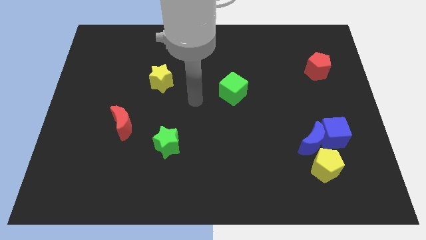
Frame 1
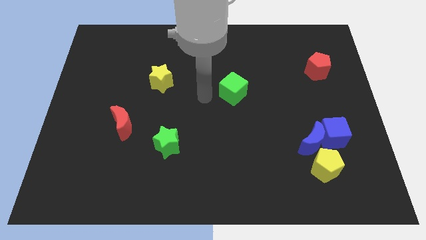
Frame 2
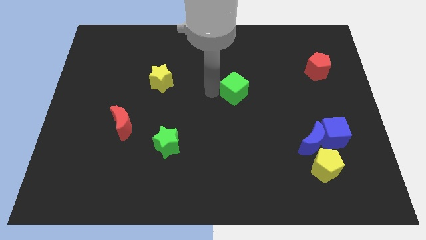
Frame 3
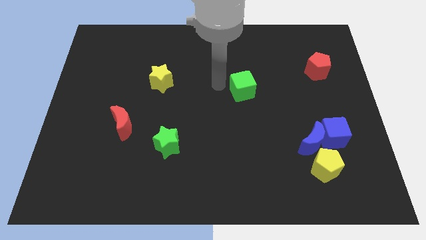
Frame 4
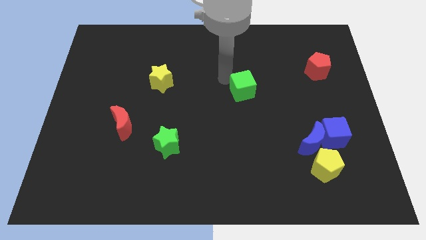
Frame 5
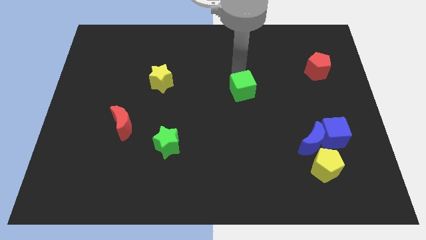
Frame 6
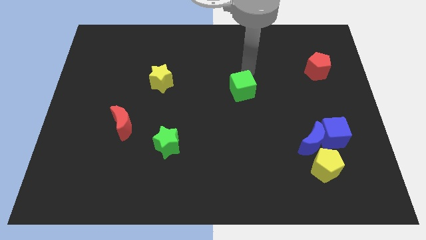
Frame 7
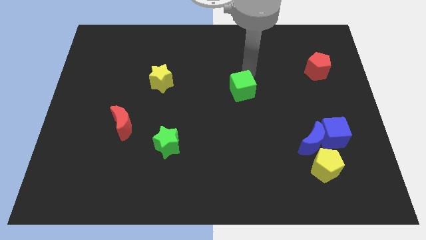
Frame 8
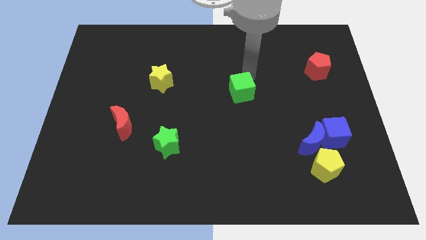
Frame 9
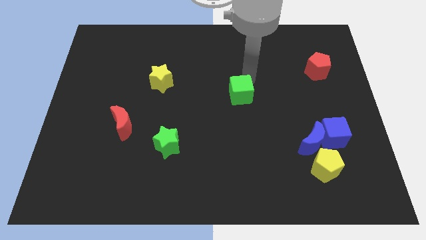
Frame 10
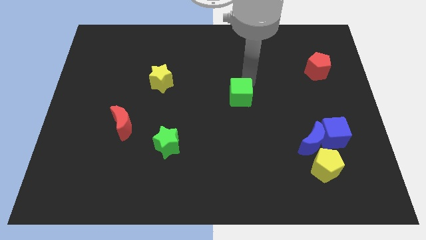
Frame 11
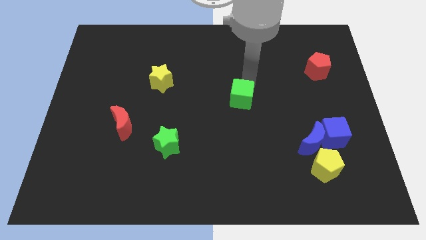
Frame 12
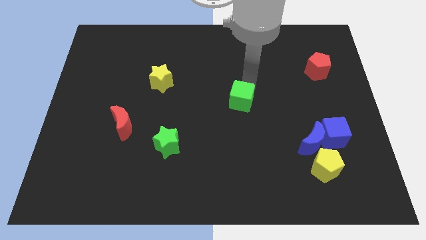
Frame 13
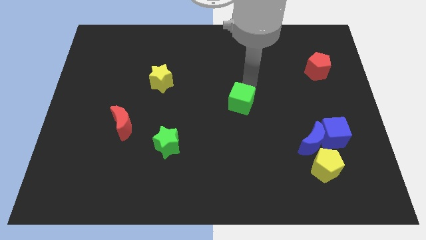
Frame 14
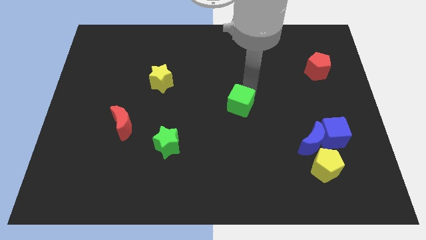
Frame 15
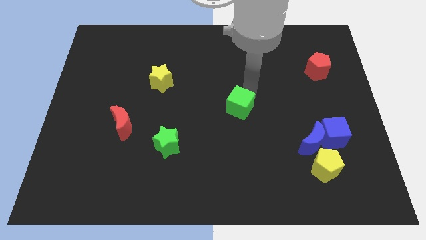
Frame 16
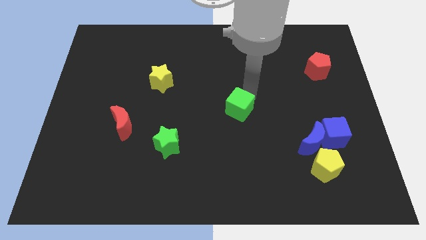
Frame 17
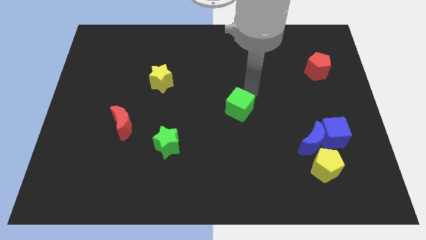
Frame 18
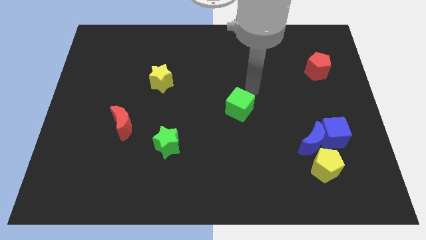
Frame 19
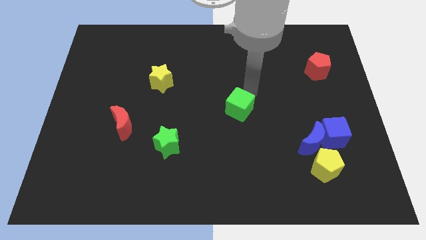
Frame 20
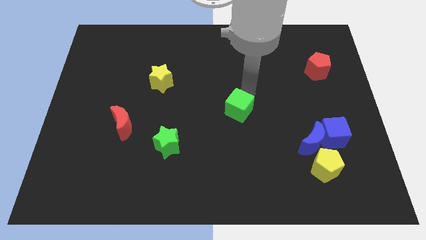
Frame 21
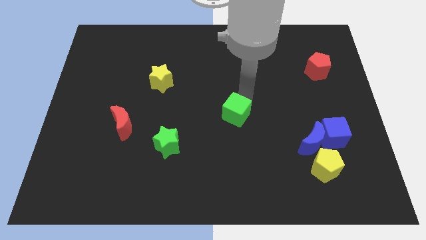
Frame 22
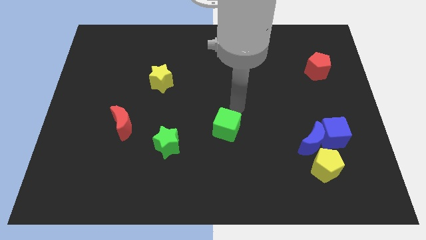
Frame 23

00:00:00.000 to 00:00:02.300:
push the green cube down slightly

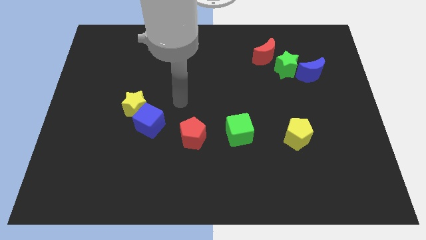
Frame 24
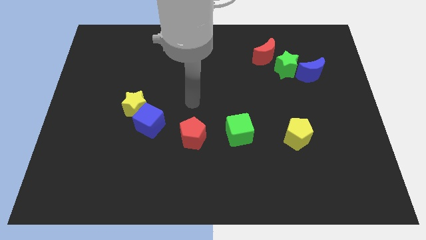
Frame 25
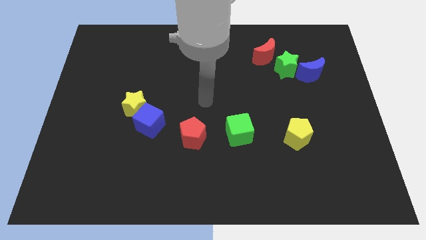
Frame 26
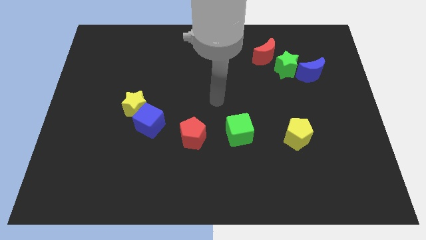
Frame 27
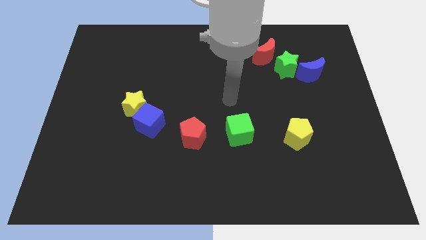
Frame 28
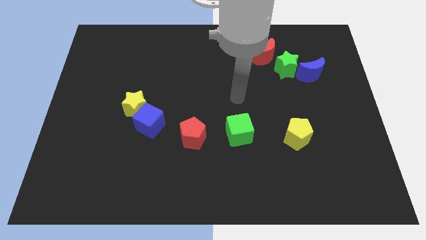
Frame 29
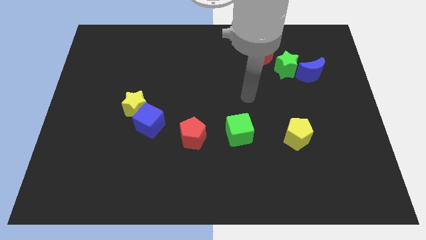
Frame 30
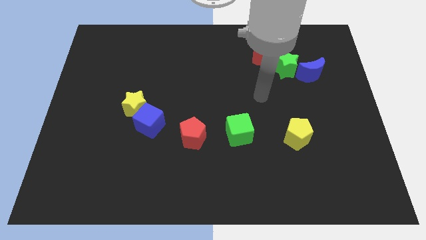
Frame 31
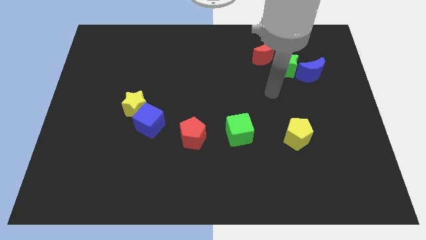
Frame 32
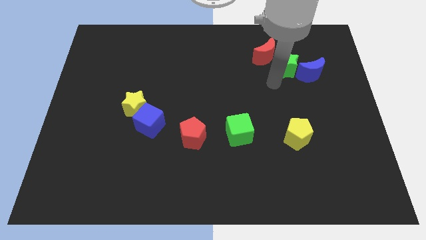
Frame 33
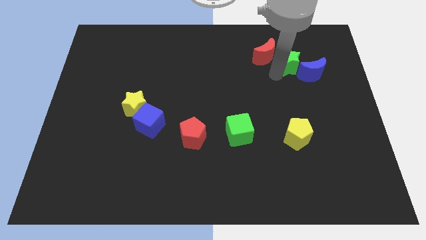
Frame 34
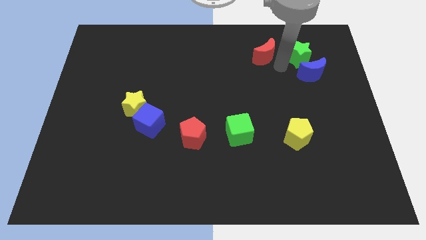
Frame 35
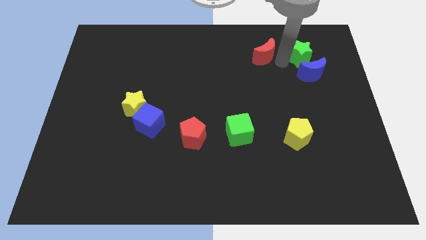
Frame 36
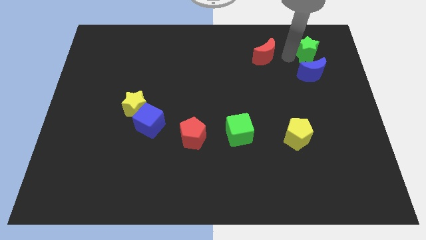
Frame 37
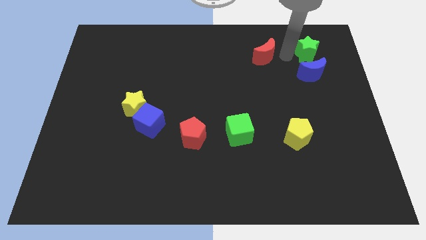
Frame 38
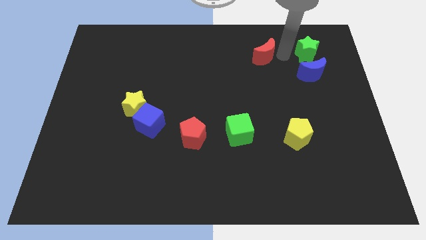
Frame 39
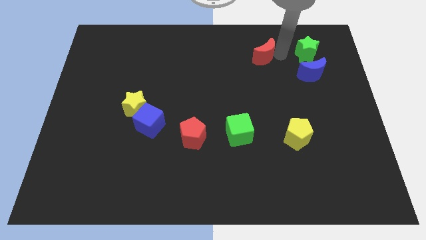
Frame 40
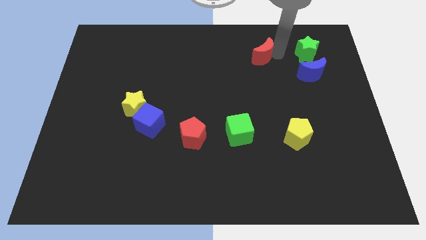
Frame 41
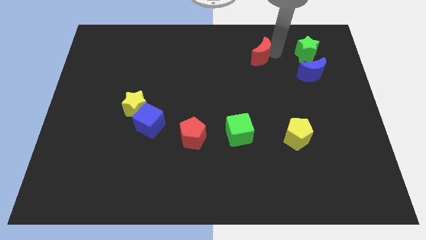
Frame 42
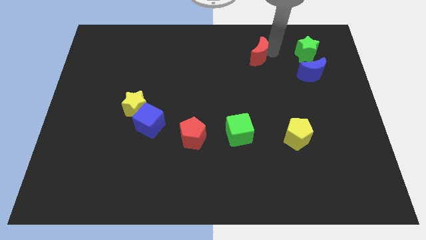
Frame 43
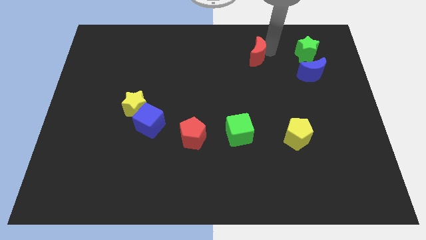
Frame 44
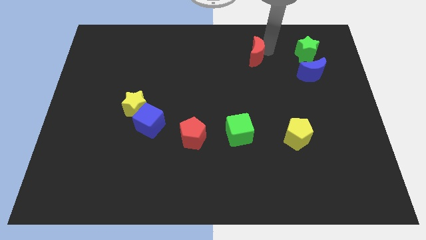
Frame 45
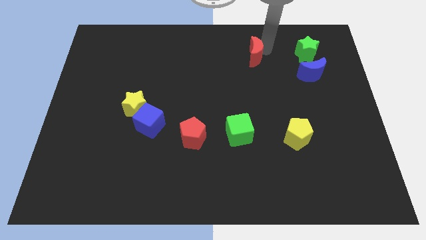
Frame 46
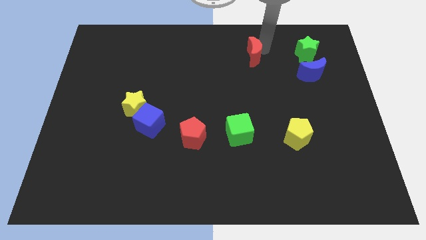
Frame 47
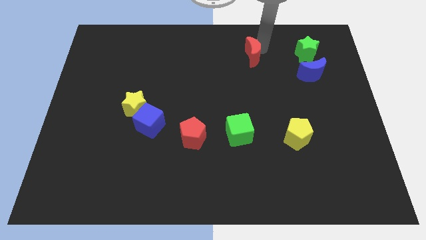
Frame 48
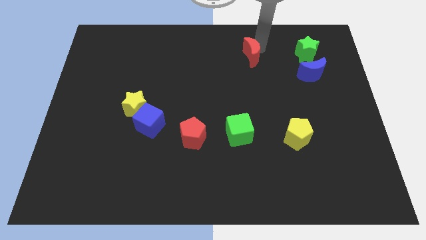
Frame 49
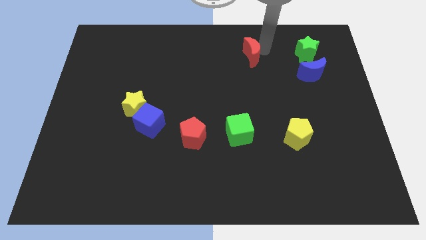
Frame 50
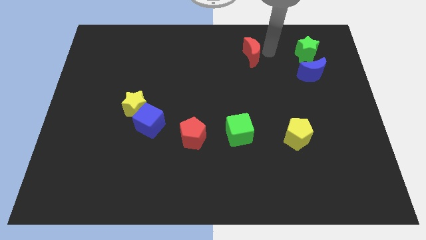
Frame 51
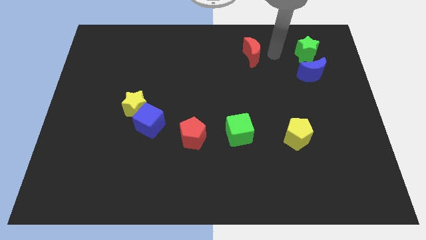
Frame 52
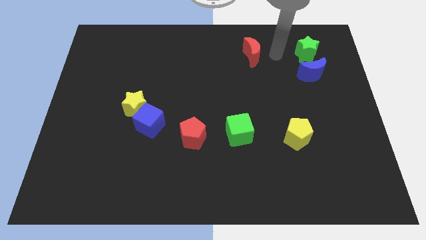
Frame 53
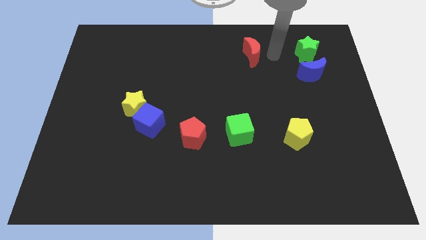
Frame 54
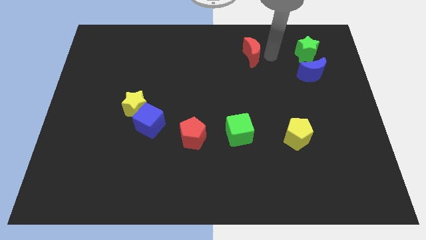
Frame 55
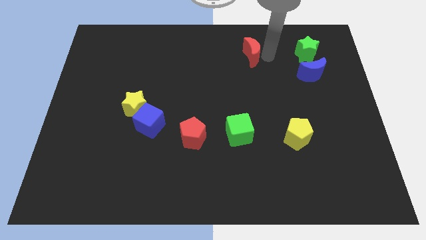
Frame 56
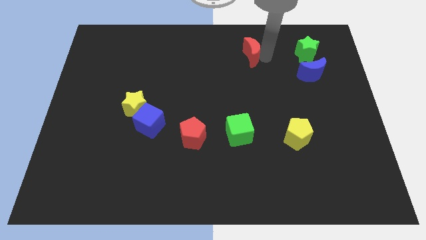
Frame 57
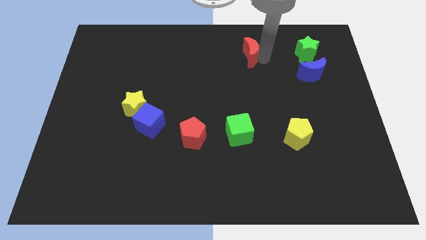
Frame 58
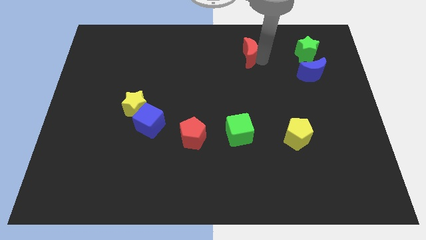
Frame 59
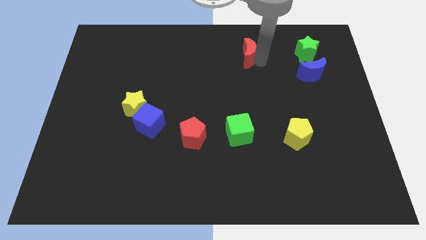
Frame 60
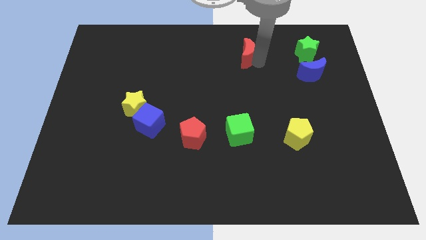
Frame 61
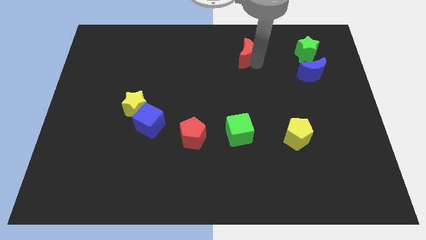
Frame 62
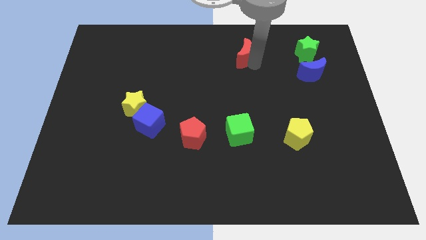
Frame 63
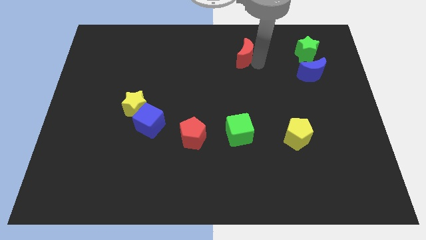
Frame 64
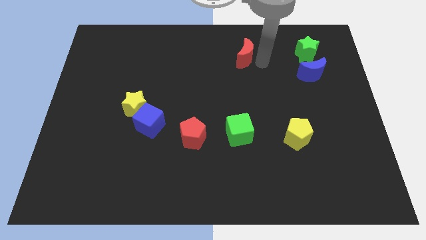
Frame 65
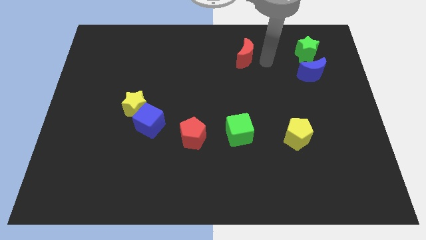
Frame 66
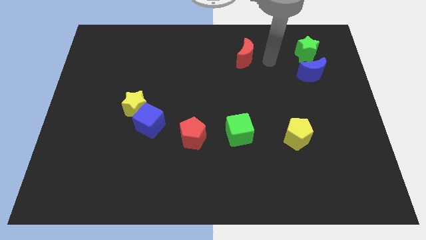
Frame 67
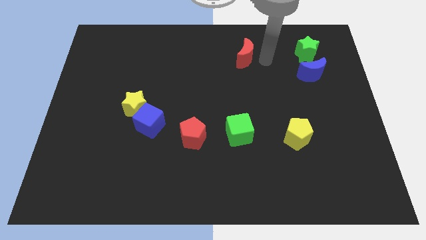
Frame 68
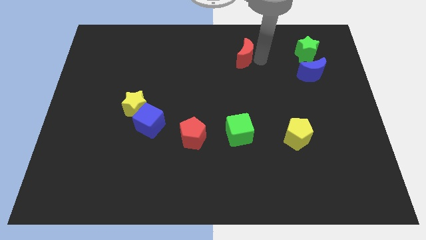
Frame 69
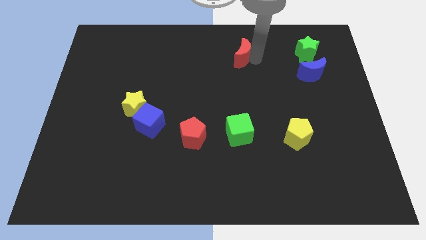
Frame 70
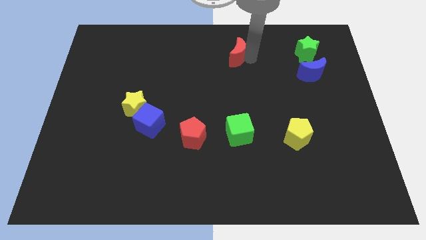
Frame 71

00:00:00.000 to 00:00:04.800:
push the red moon a little bit left

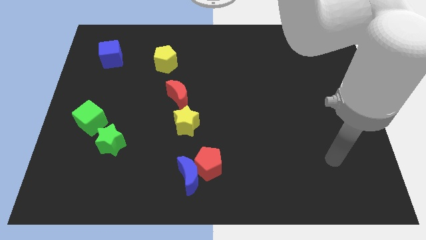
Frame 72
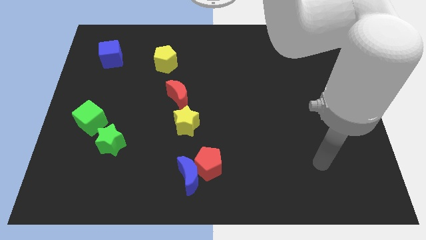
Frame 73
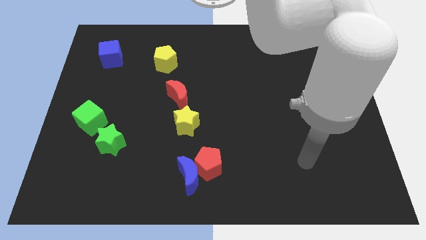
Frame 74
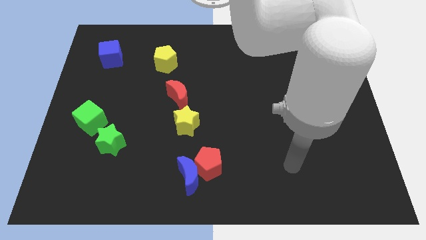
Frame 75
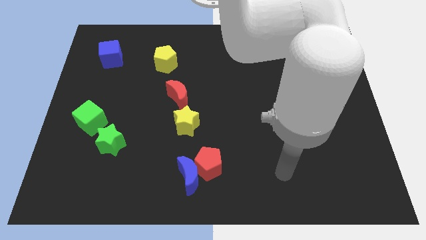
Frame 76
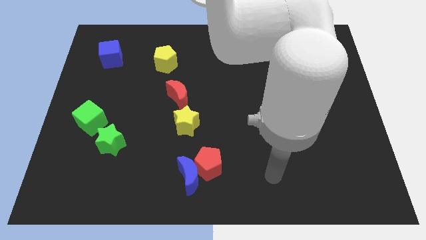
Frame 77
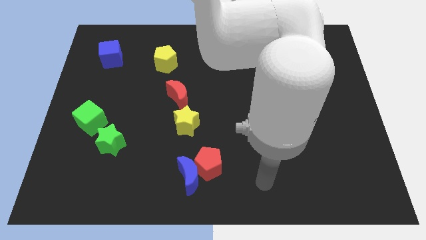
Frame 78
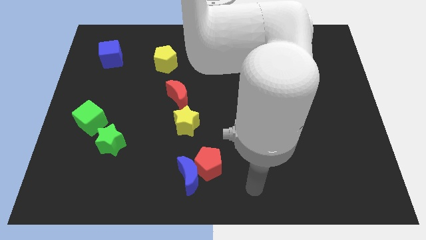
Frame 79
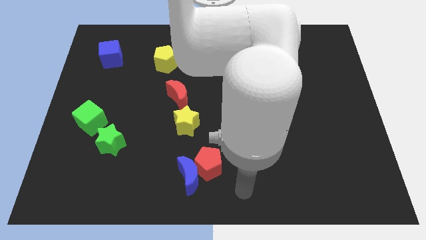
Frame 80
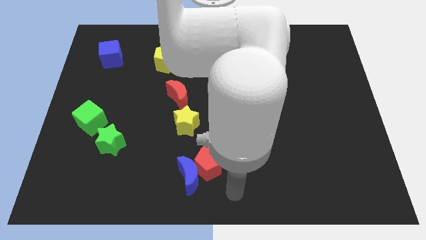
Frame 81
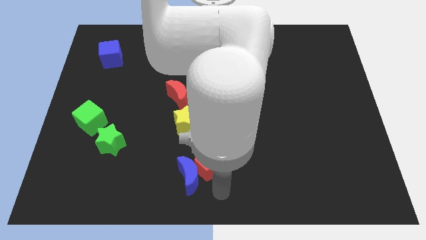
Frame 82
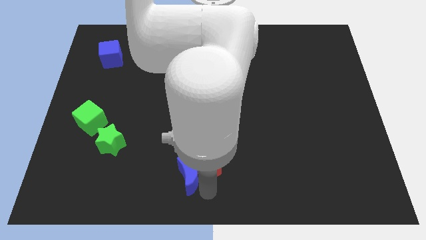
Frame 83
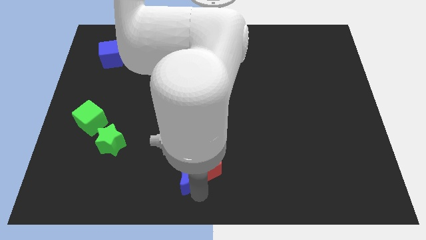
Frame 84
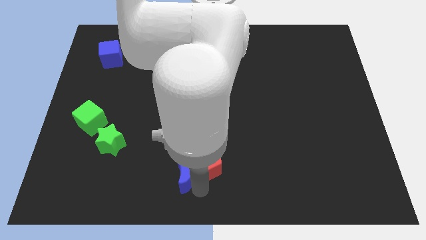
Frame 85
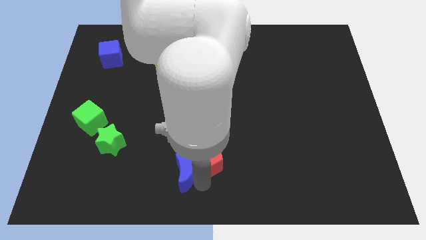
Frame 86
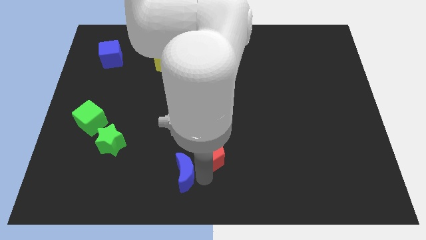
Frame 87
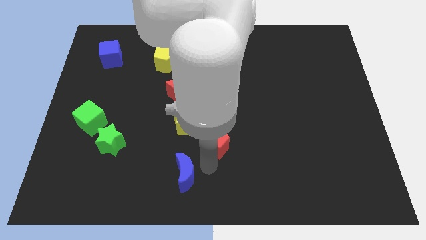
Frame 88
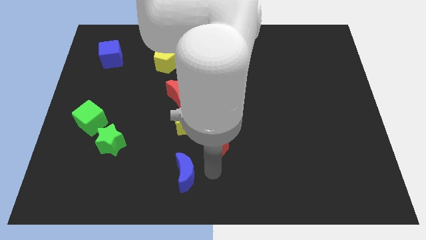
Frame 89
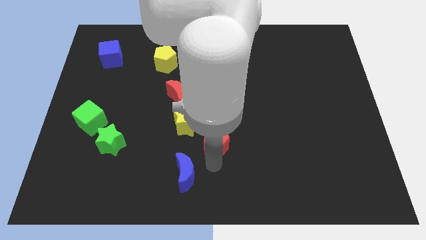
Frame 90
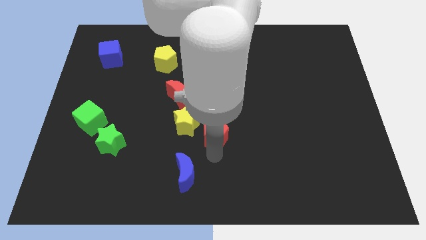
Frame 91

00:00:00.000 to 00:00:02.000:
move the red pentagon a little bit up
